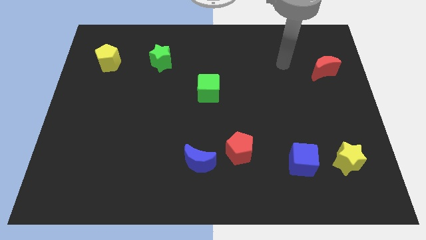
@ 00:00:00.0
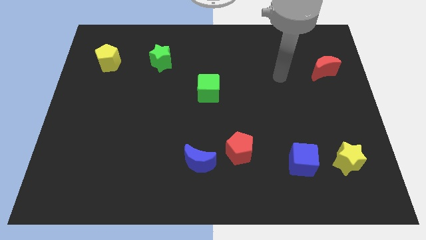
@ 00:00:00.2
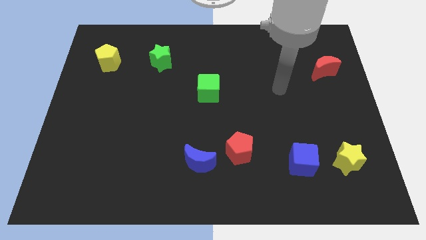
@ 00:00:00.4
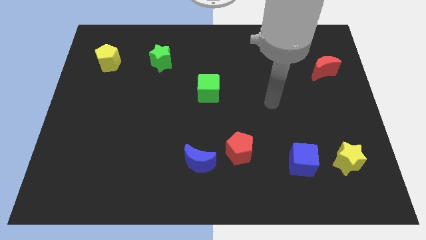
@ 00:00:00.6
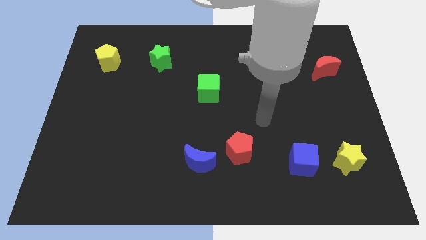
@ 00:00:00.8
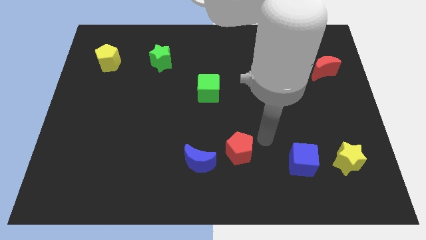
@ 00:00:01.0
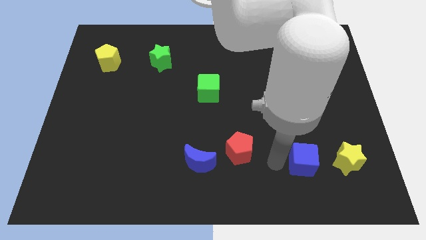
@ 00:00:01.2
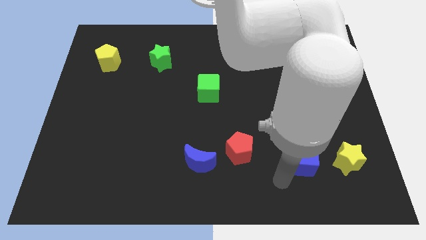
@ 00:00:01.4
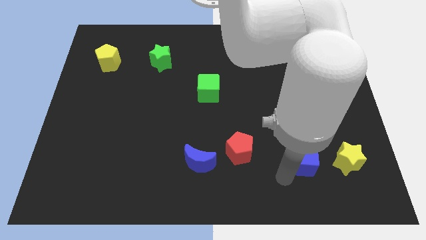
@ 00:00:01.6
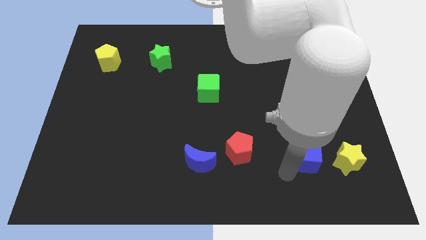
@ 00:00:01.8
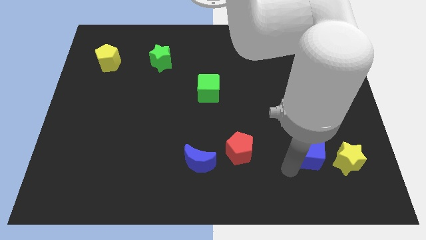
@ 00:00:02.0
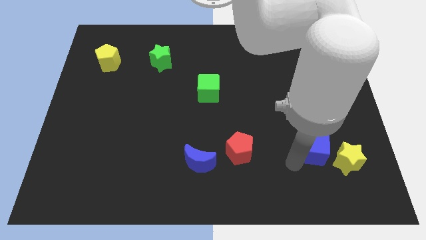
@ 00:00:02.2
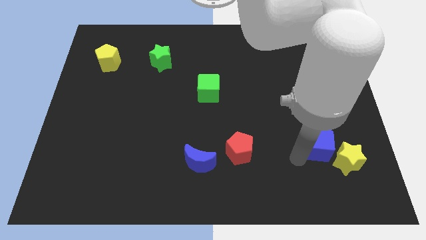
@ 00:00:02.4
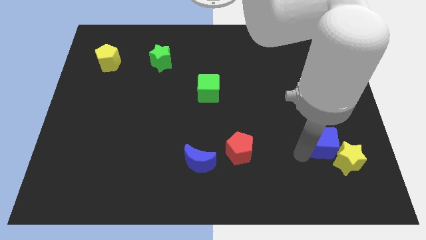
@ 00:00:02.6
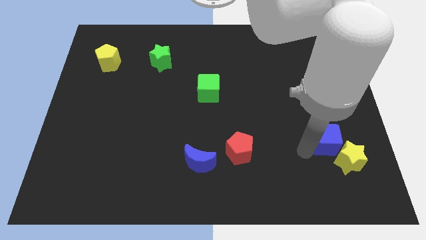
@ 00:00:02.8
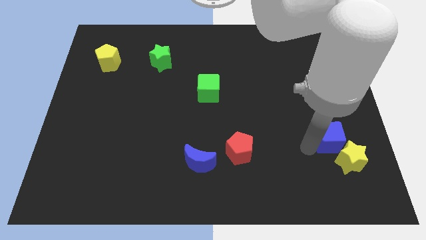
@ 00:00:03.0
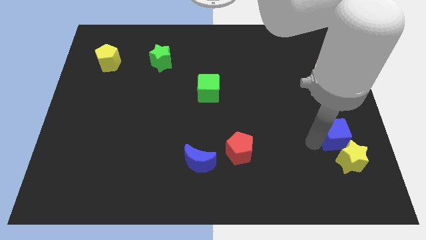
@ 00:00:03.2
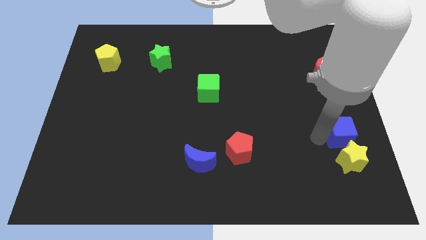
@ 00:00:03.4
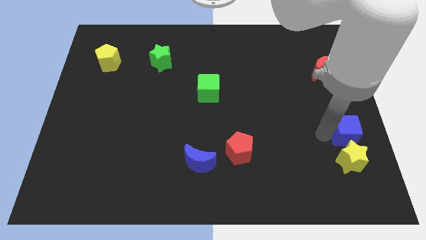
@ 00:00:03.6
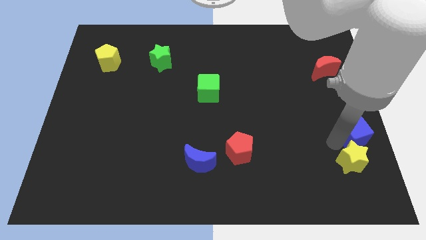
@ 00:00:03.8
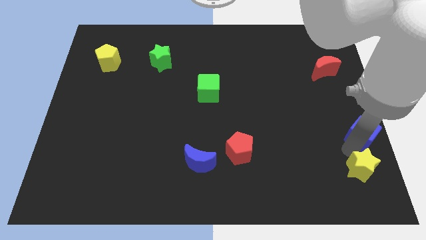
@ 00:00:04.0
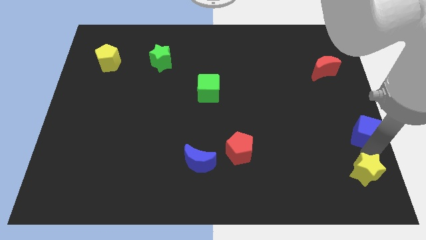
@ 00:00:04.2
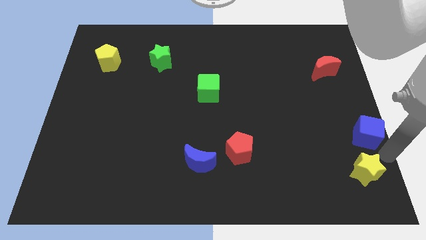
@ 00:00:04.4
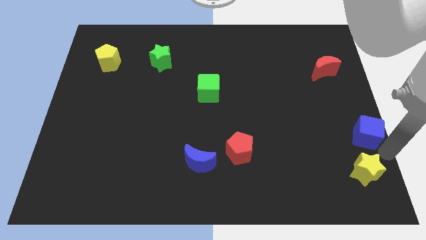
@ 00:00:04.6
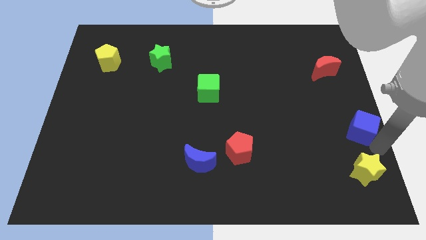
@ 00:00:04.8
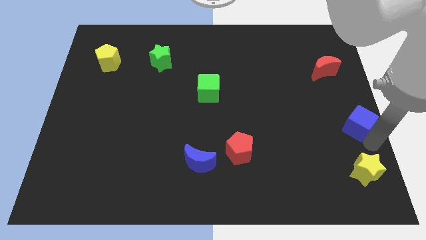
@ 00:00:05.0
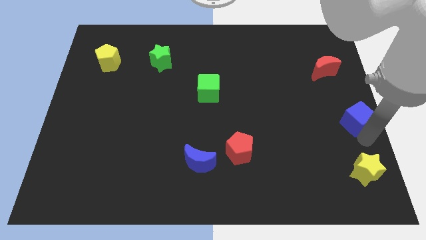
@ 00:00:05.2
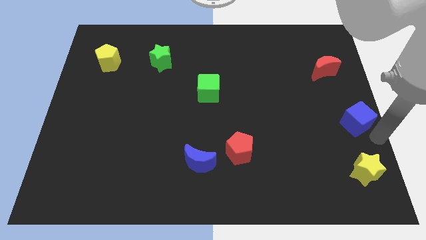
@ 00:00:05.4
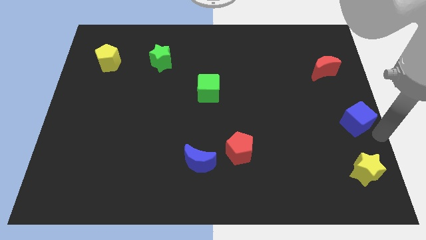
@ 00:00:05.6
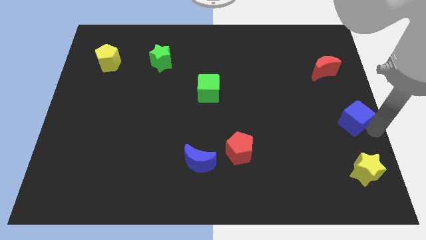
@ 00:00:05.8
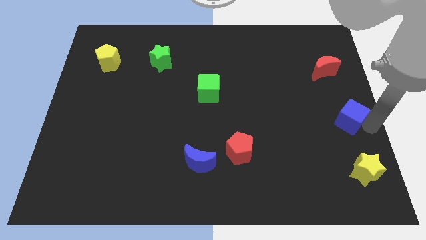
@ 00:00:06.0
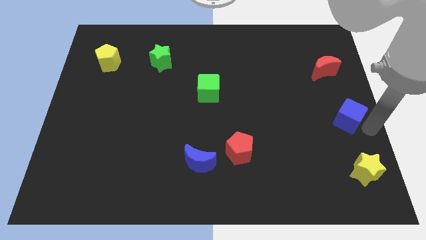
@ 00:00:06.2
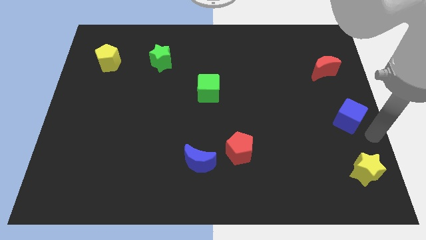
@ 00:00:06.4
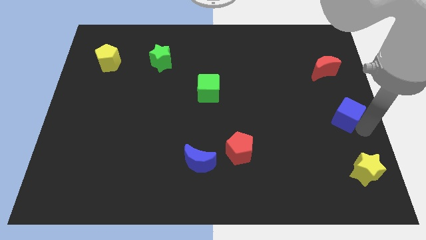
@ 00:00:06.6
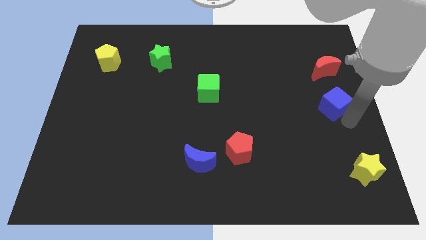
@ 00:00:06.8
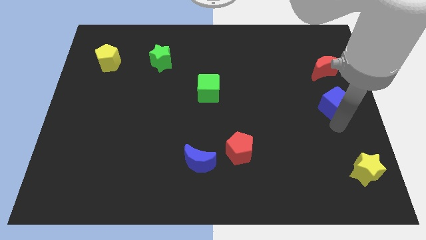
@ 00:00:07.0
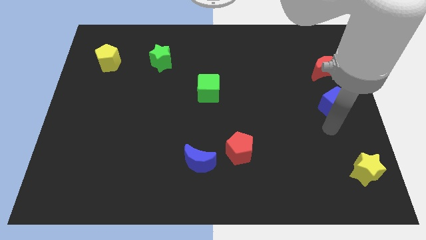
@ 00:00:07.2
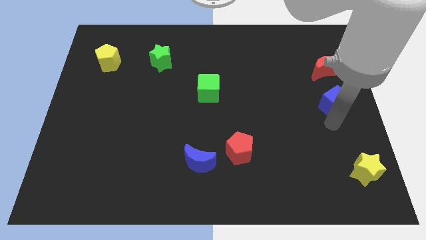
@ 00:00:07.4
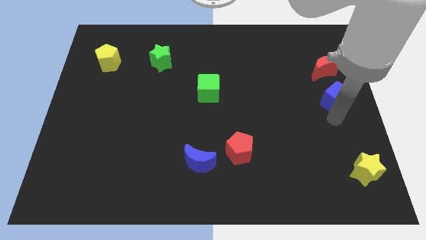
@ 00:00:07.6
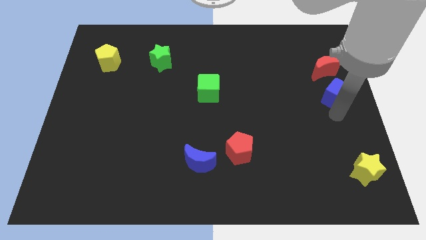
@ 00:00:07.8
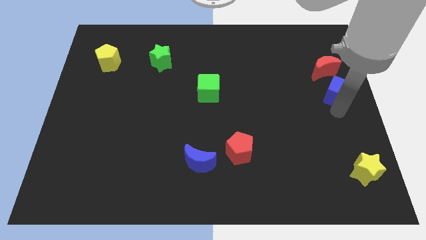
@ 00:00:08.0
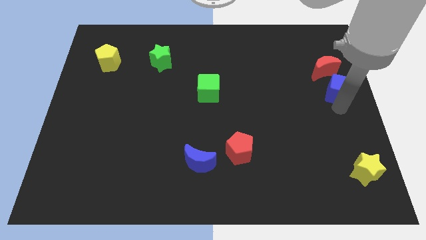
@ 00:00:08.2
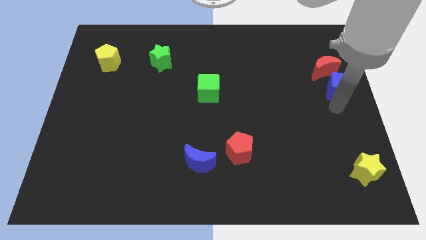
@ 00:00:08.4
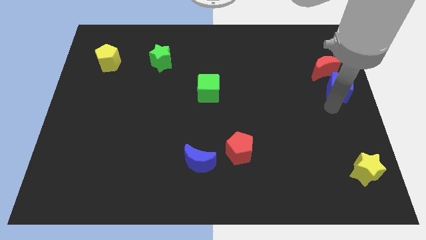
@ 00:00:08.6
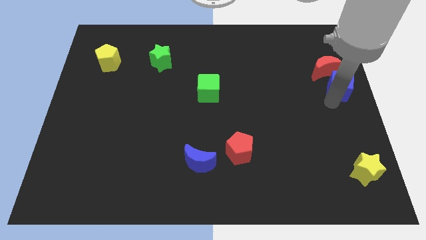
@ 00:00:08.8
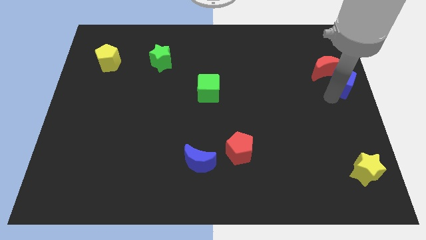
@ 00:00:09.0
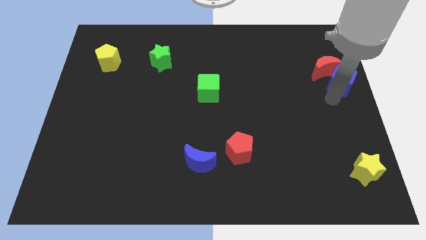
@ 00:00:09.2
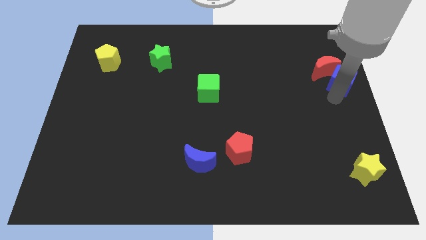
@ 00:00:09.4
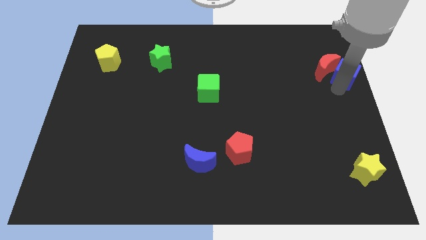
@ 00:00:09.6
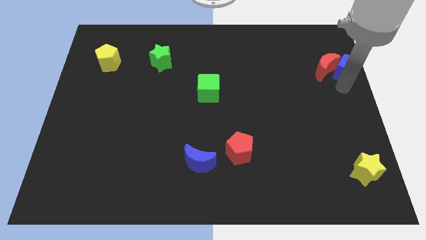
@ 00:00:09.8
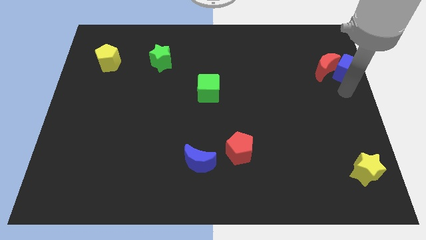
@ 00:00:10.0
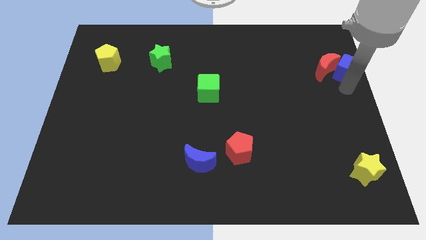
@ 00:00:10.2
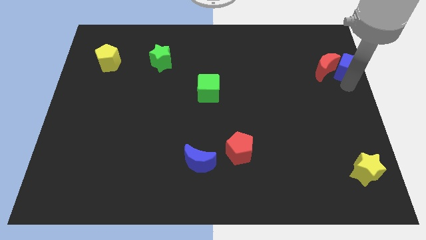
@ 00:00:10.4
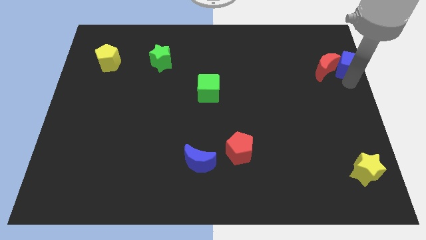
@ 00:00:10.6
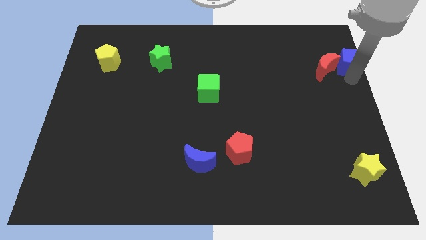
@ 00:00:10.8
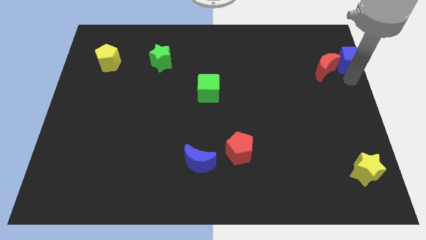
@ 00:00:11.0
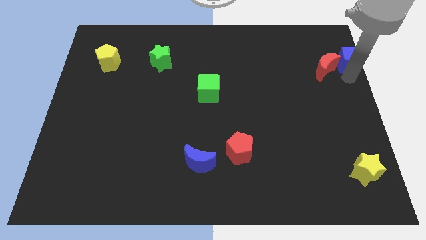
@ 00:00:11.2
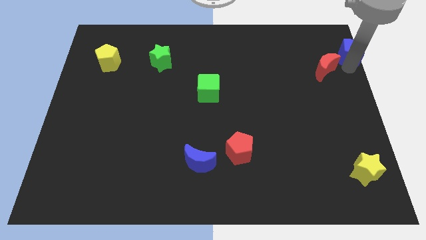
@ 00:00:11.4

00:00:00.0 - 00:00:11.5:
put the blue cube to the top right
